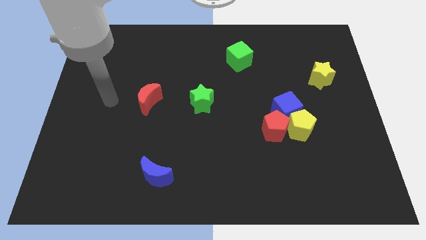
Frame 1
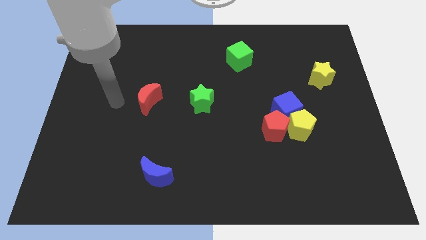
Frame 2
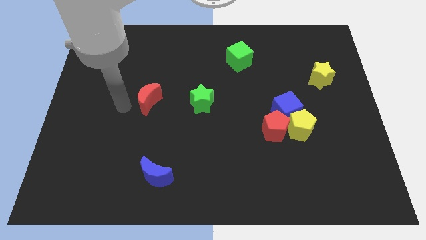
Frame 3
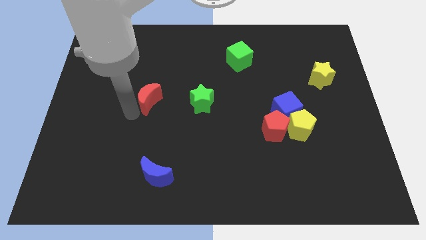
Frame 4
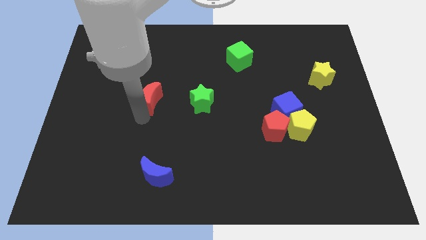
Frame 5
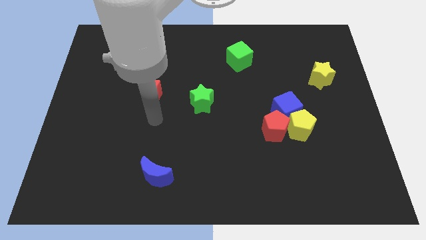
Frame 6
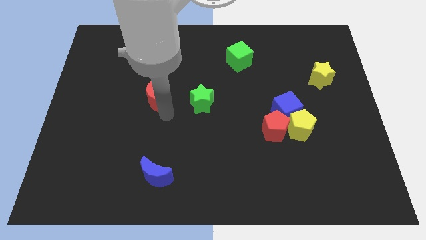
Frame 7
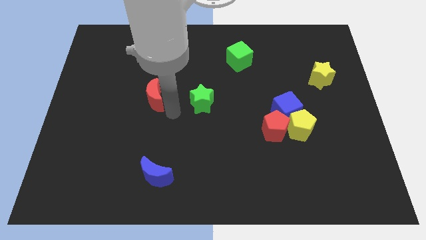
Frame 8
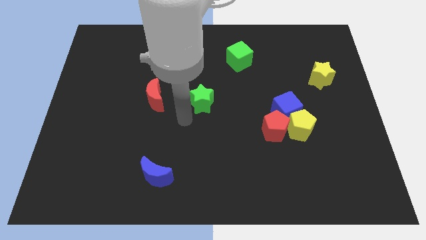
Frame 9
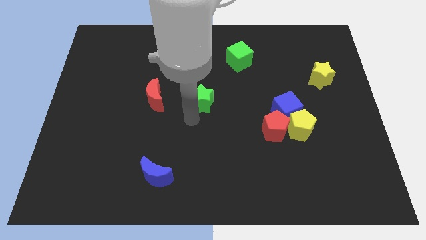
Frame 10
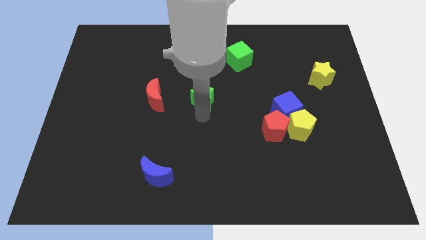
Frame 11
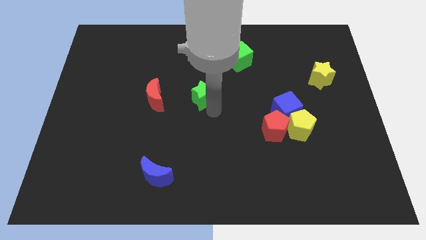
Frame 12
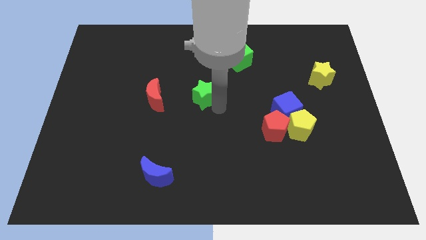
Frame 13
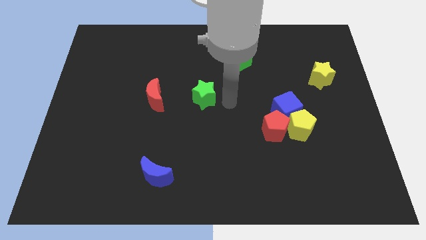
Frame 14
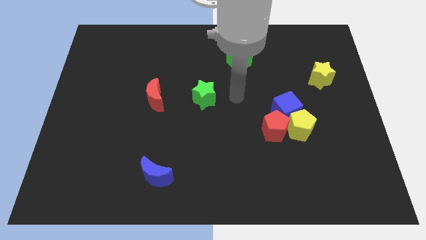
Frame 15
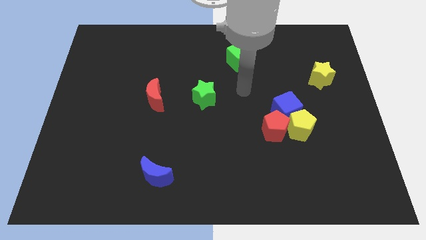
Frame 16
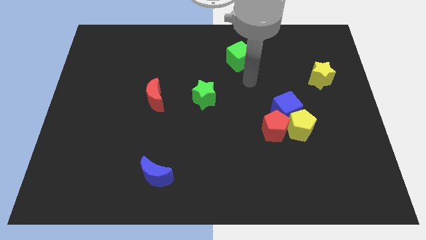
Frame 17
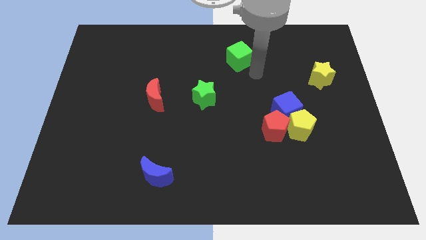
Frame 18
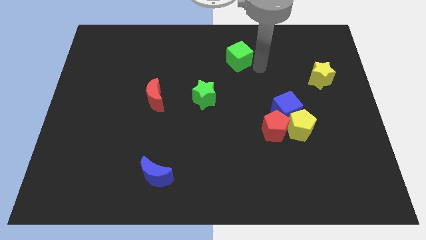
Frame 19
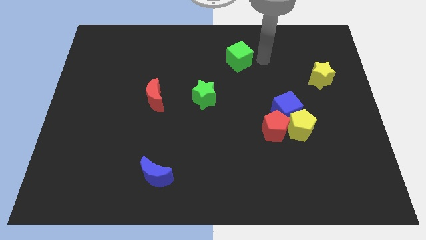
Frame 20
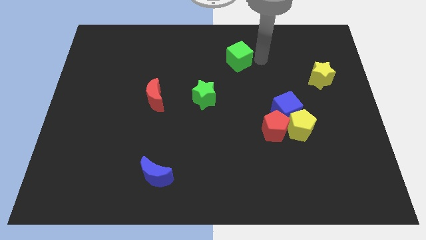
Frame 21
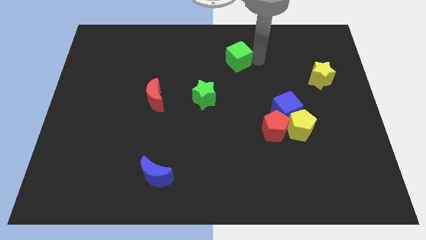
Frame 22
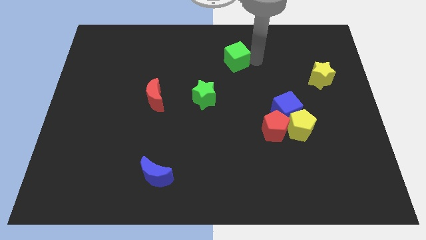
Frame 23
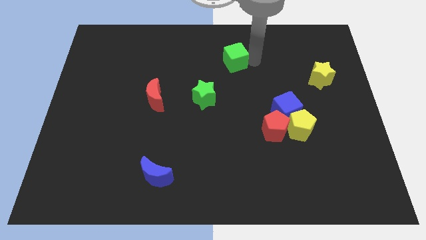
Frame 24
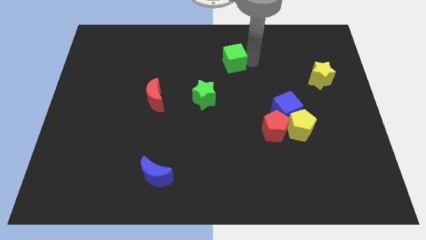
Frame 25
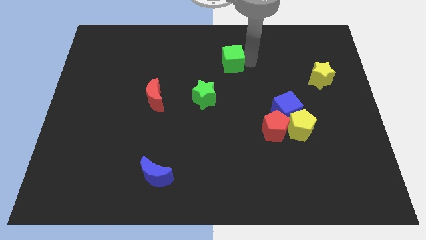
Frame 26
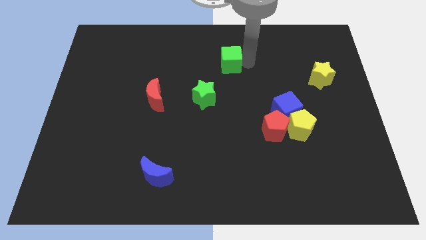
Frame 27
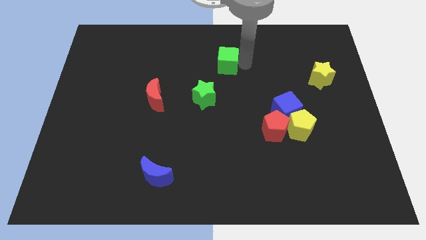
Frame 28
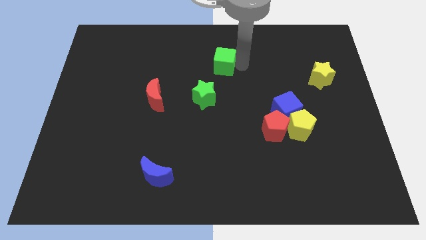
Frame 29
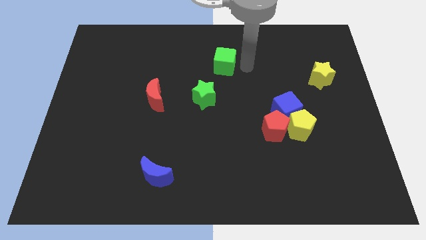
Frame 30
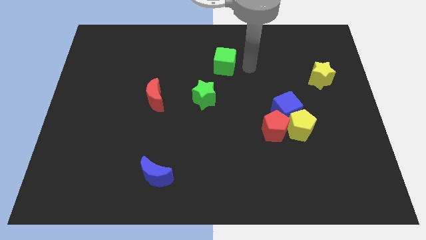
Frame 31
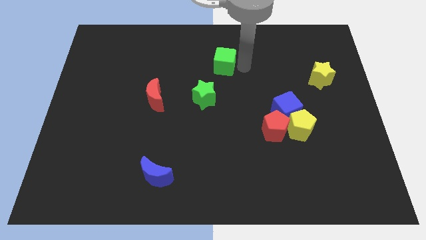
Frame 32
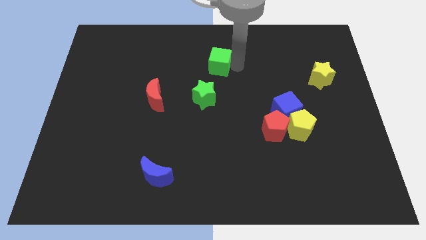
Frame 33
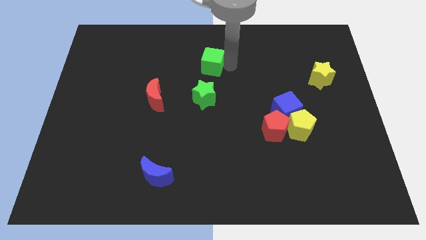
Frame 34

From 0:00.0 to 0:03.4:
slightly push the green cube left

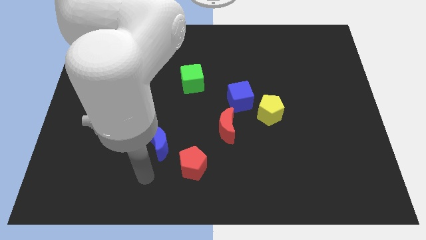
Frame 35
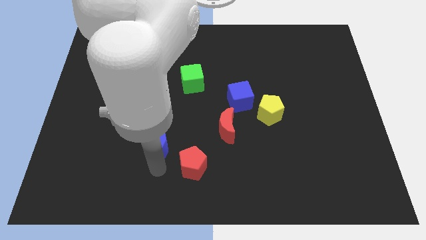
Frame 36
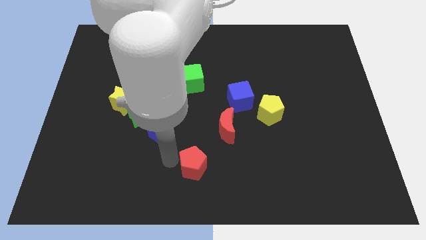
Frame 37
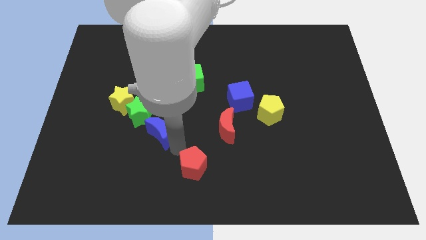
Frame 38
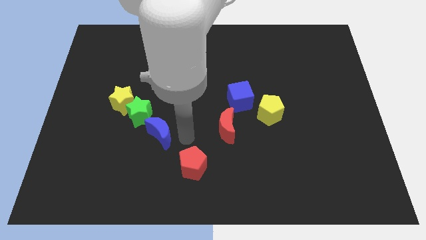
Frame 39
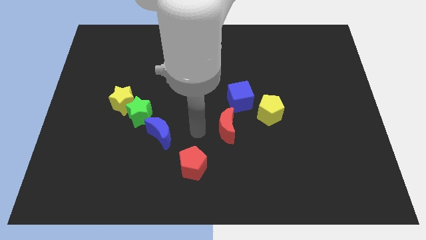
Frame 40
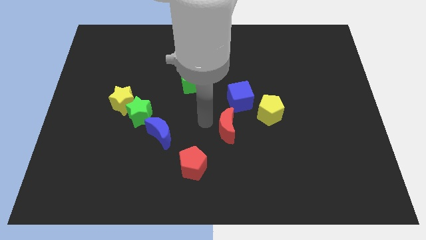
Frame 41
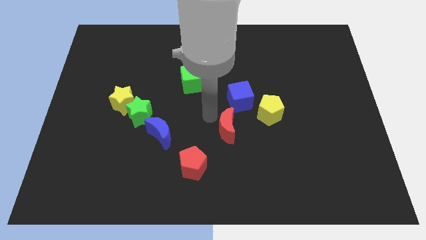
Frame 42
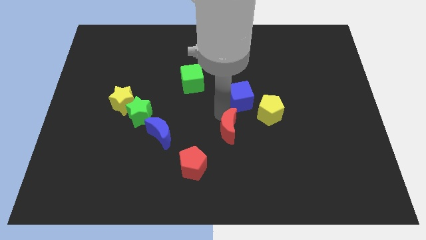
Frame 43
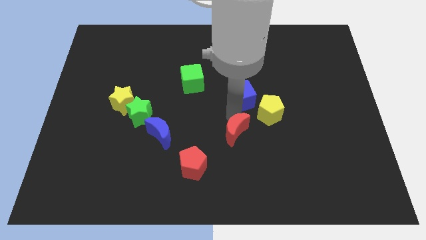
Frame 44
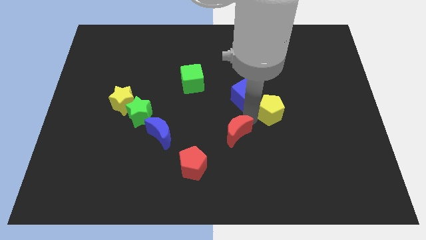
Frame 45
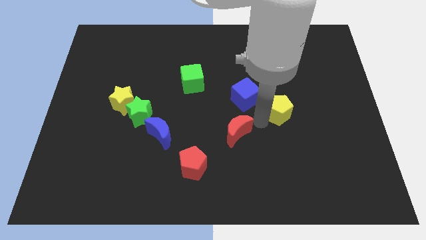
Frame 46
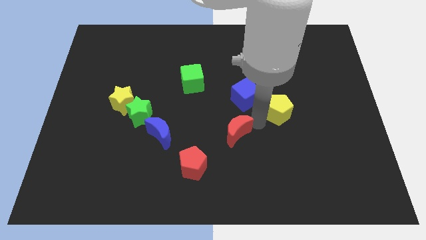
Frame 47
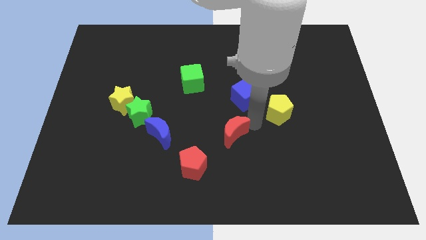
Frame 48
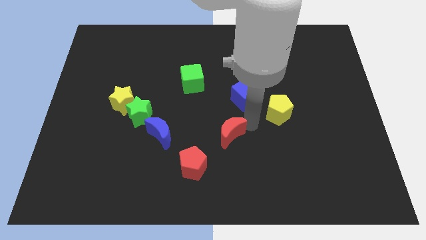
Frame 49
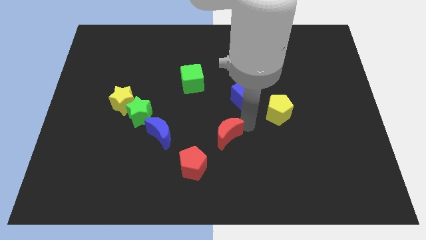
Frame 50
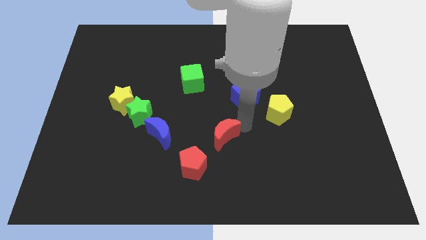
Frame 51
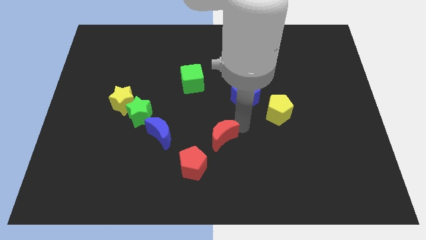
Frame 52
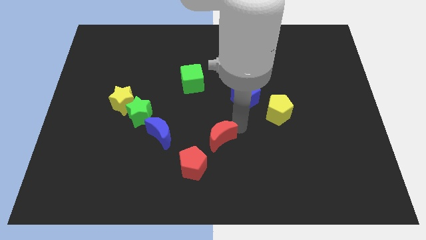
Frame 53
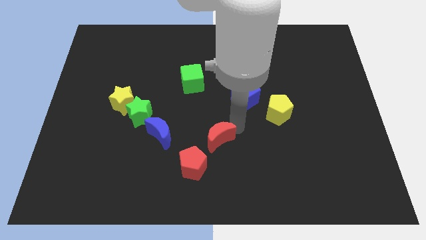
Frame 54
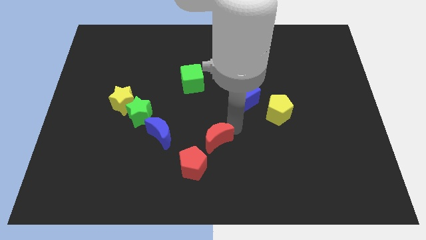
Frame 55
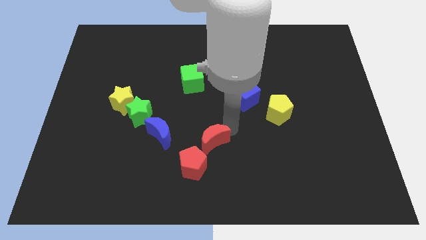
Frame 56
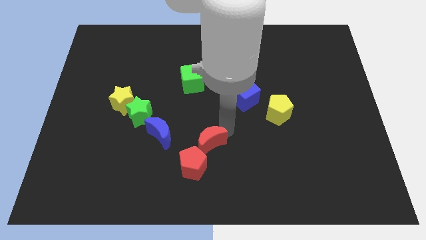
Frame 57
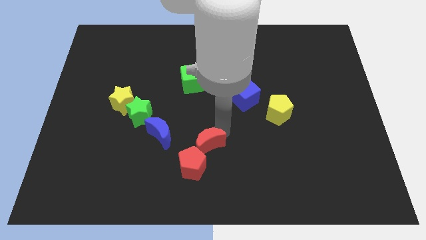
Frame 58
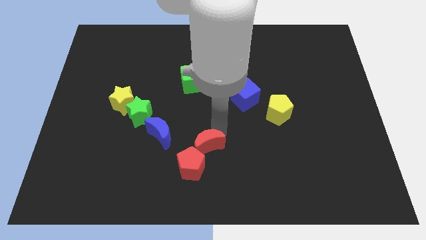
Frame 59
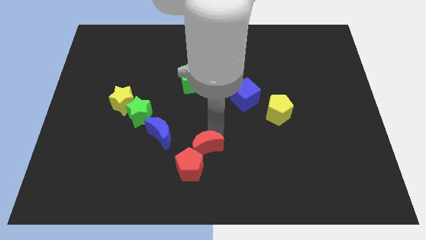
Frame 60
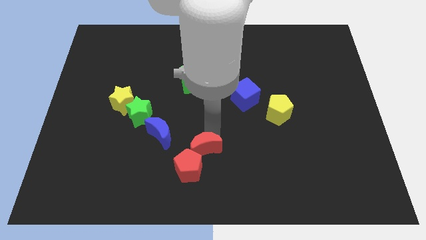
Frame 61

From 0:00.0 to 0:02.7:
push the red moon down and to the left diagonally a bit

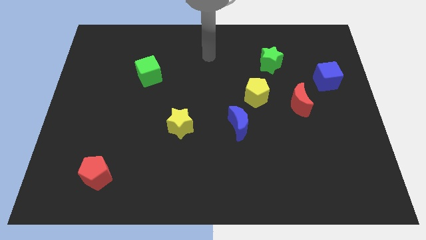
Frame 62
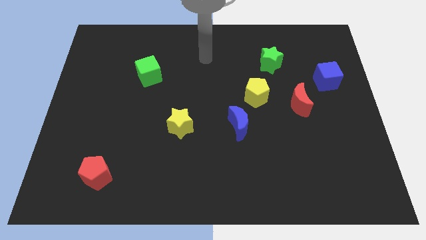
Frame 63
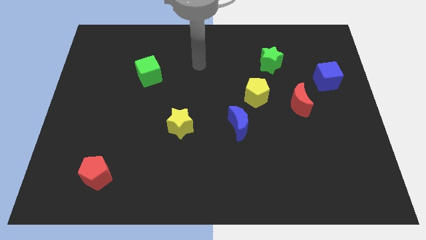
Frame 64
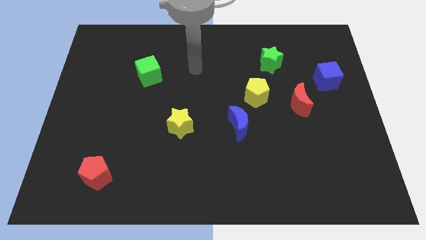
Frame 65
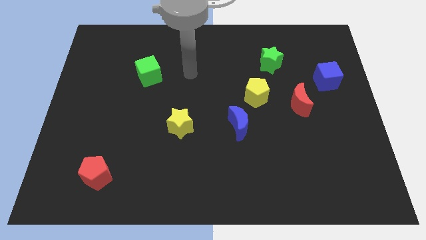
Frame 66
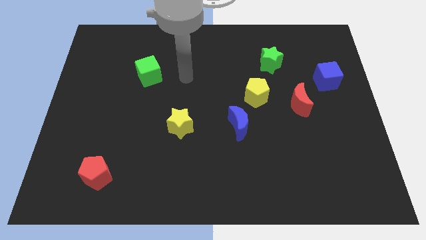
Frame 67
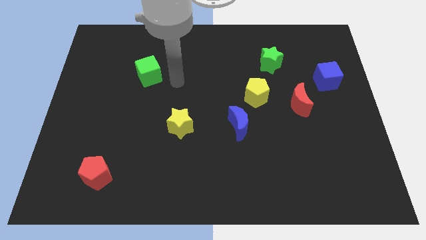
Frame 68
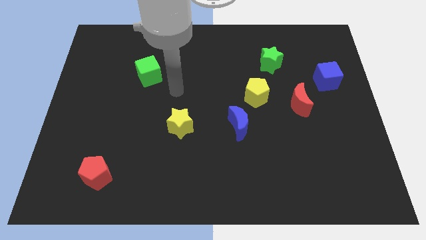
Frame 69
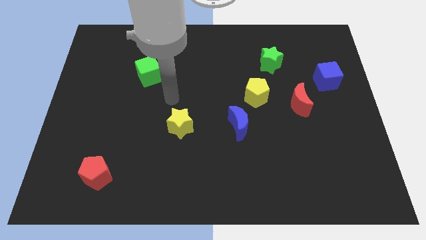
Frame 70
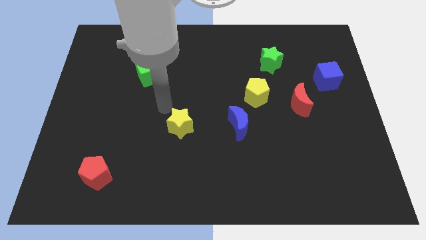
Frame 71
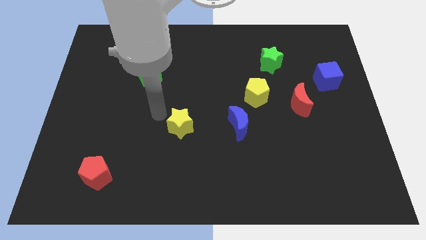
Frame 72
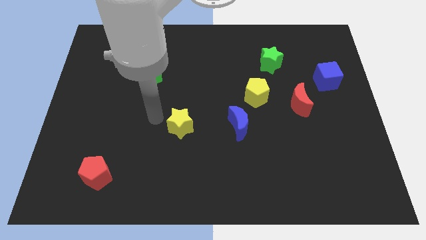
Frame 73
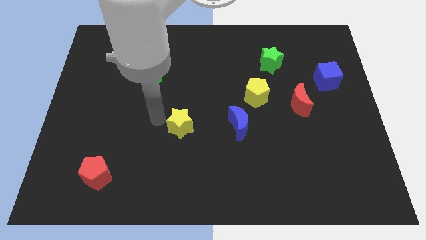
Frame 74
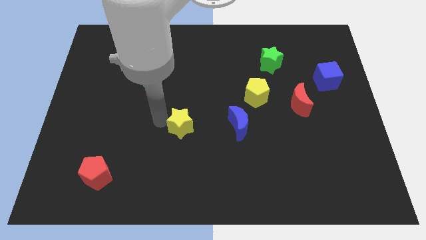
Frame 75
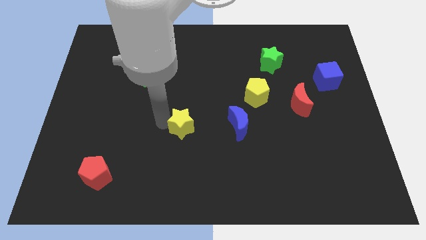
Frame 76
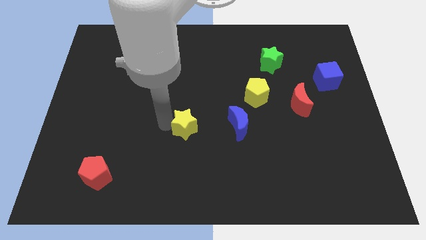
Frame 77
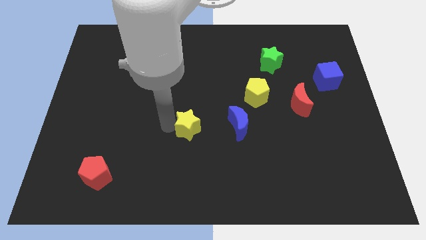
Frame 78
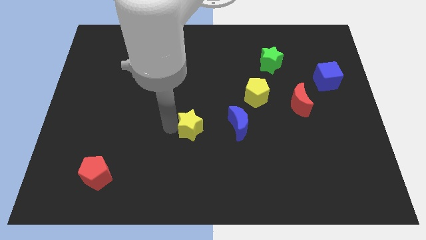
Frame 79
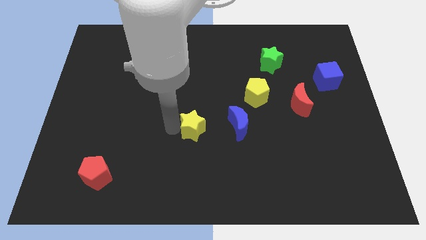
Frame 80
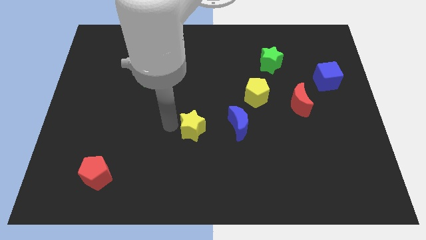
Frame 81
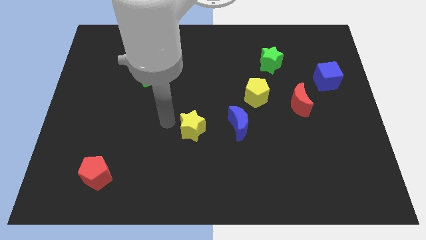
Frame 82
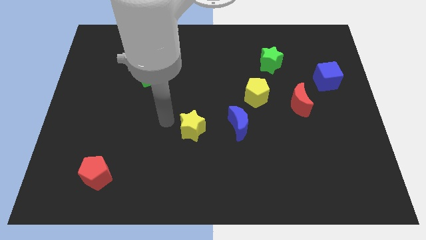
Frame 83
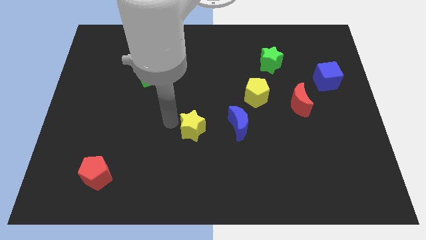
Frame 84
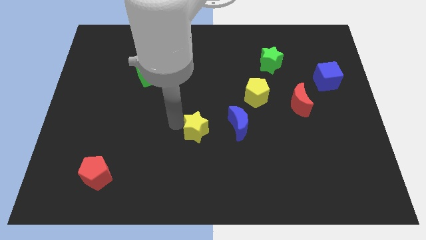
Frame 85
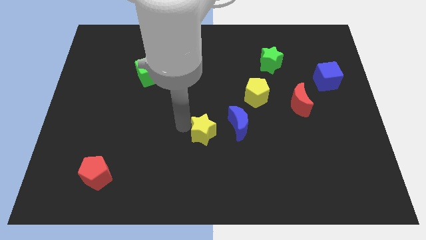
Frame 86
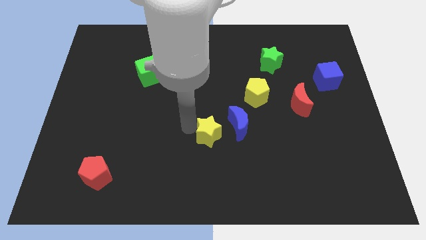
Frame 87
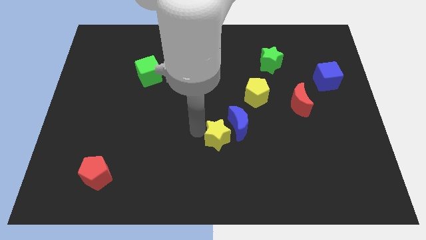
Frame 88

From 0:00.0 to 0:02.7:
slide the yellow star a bit to the right
